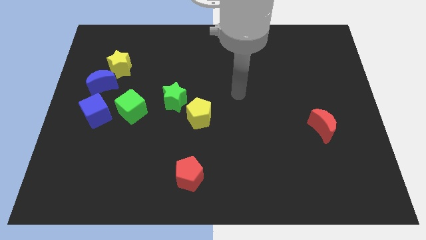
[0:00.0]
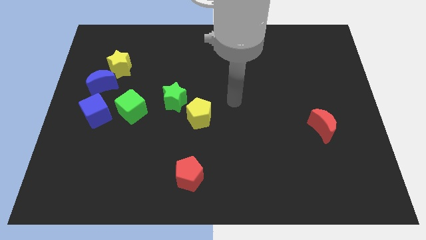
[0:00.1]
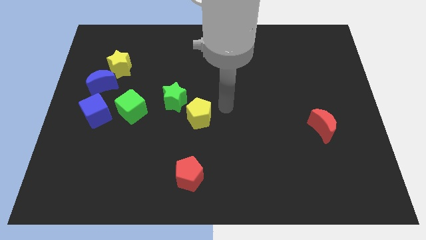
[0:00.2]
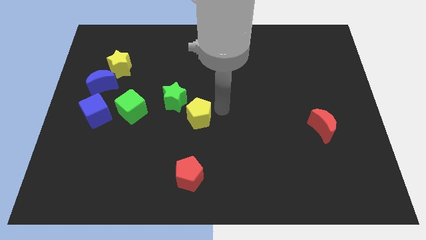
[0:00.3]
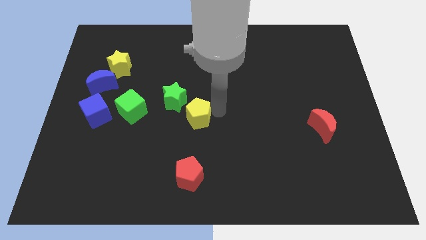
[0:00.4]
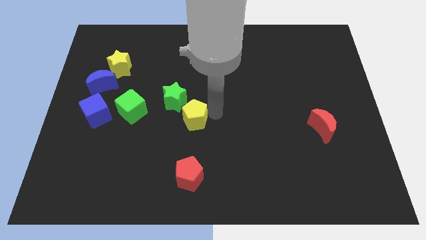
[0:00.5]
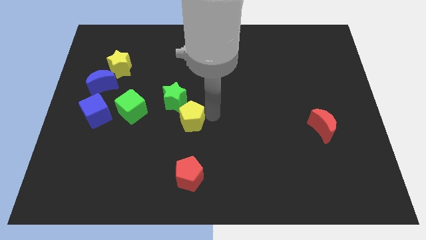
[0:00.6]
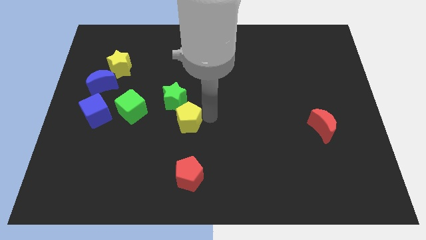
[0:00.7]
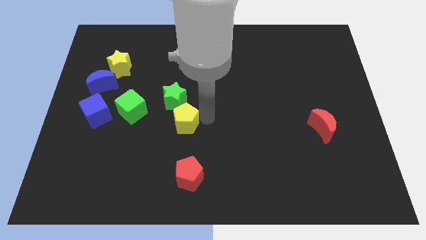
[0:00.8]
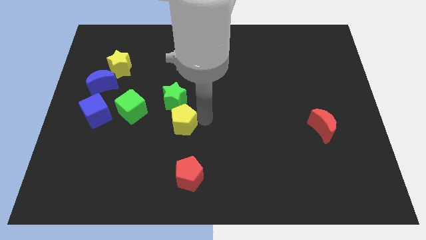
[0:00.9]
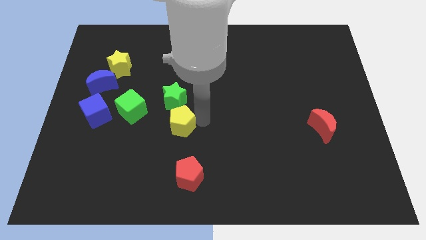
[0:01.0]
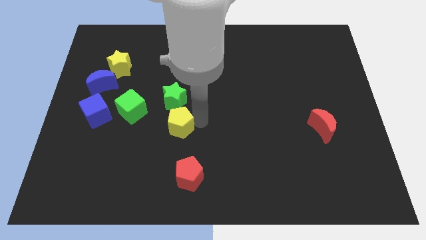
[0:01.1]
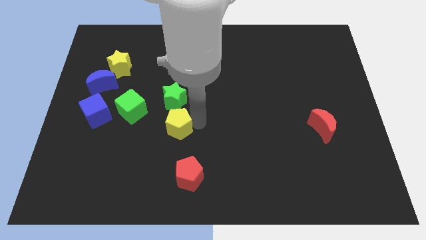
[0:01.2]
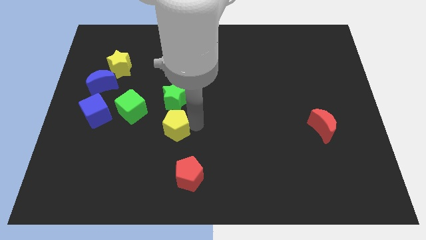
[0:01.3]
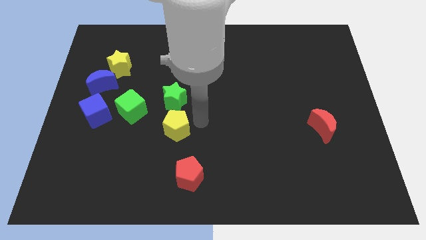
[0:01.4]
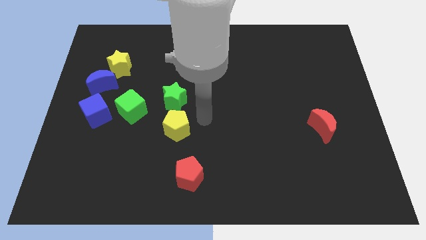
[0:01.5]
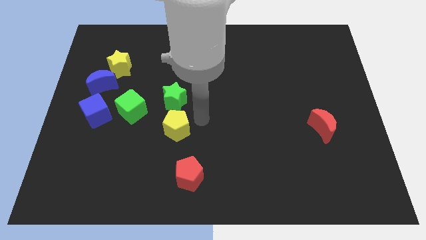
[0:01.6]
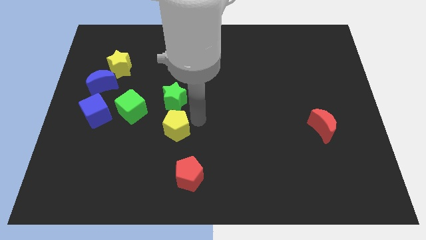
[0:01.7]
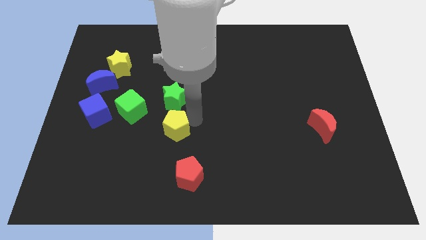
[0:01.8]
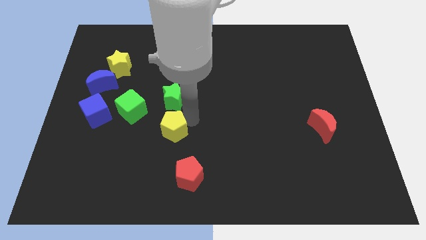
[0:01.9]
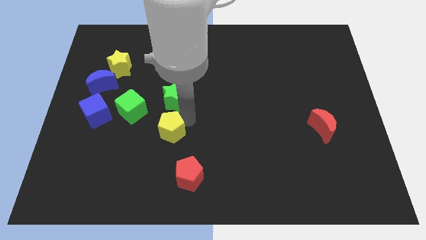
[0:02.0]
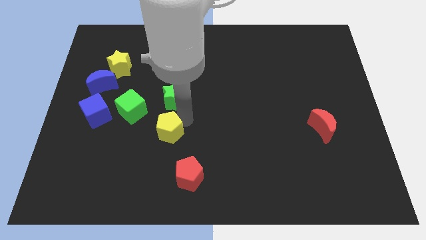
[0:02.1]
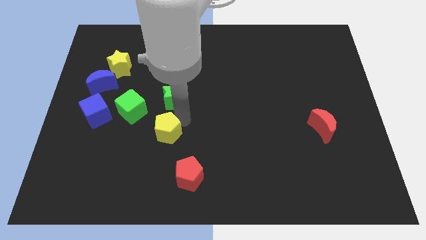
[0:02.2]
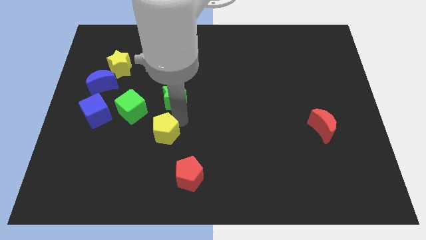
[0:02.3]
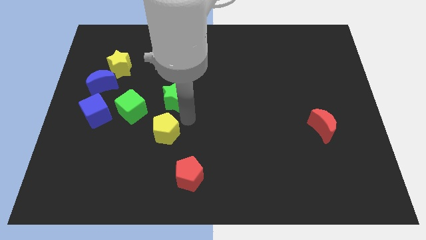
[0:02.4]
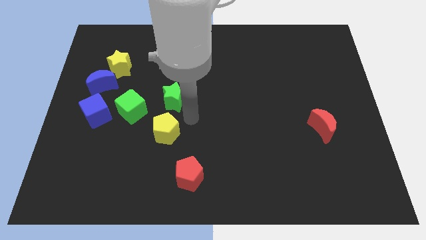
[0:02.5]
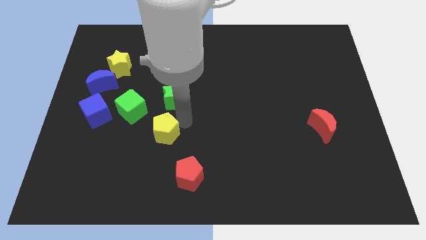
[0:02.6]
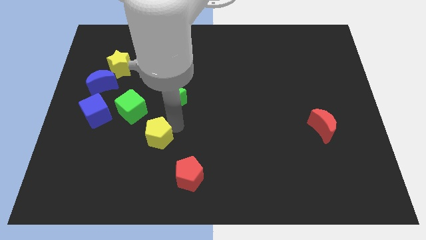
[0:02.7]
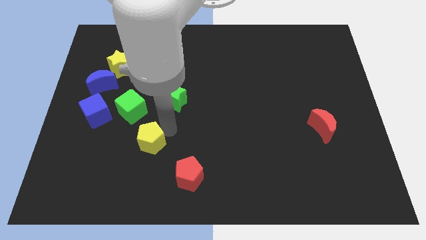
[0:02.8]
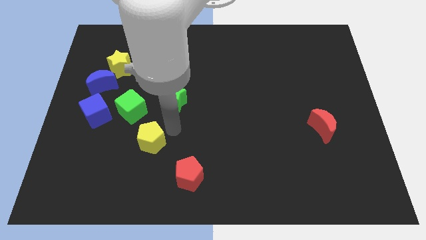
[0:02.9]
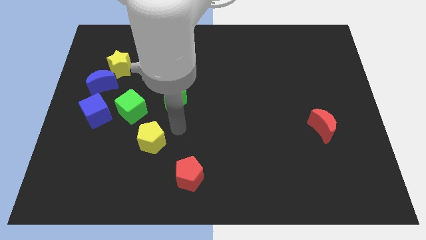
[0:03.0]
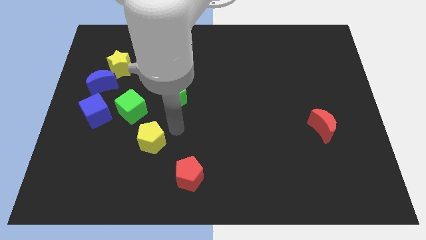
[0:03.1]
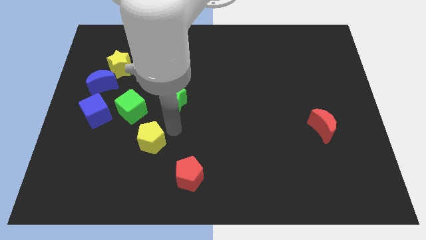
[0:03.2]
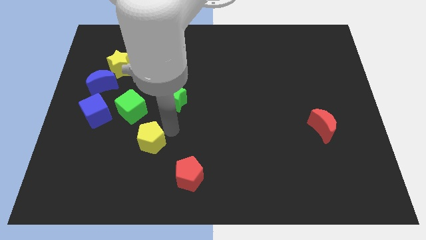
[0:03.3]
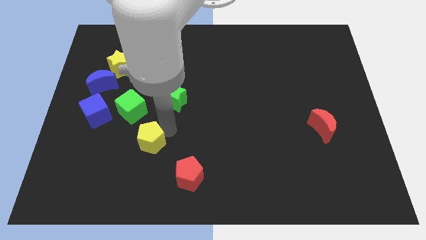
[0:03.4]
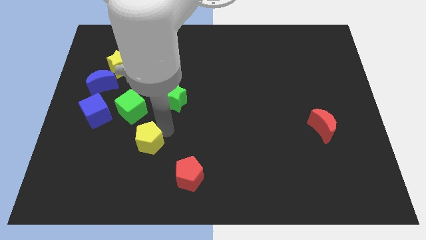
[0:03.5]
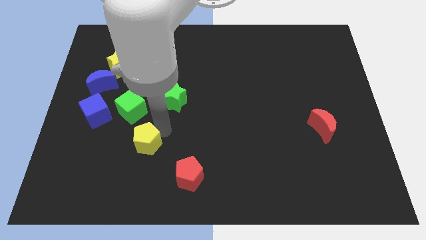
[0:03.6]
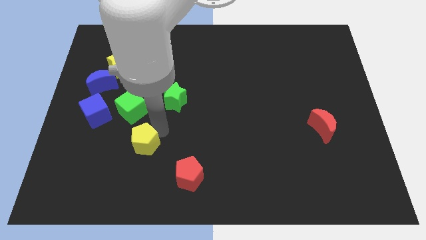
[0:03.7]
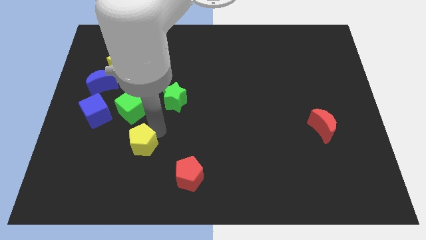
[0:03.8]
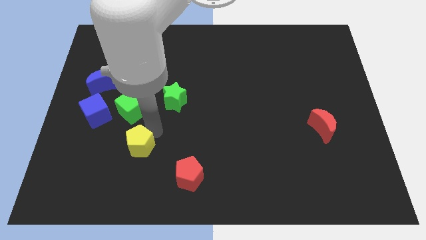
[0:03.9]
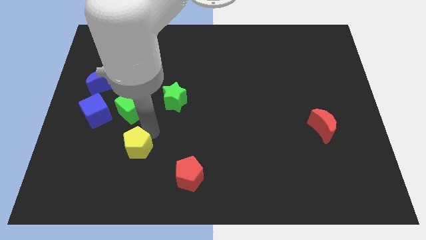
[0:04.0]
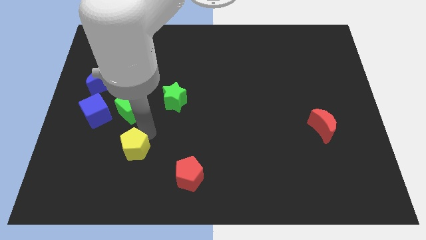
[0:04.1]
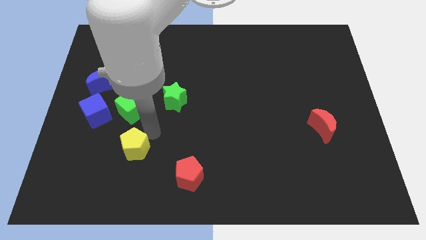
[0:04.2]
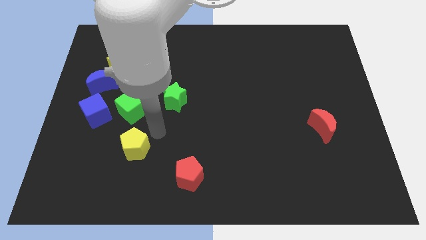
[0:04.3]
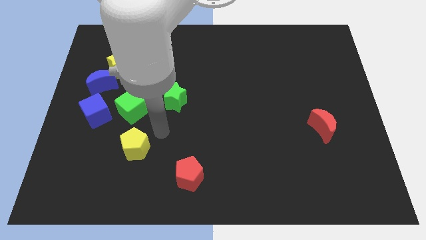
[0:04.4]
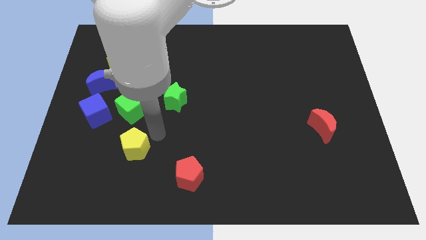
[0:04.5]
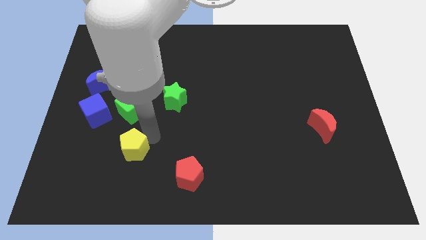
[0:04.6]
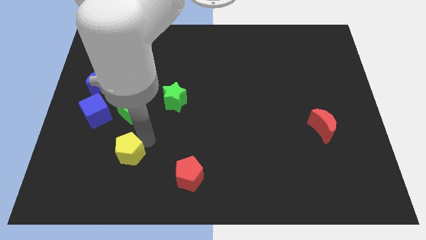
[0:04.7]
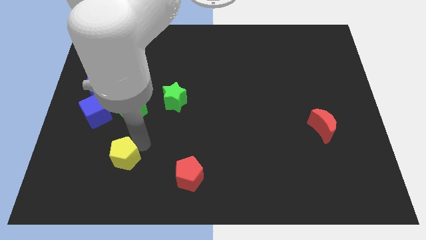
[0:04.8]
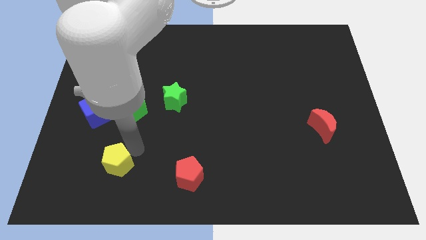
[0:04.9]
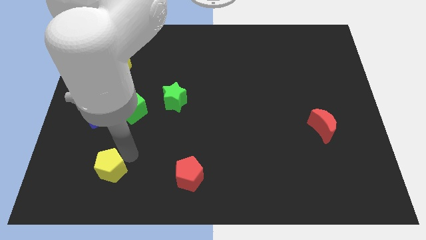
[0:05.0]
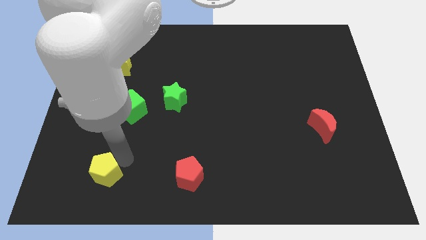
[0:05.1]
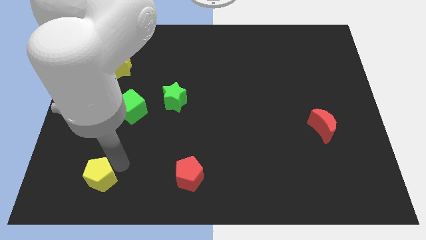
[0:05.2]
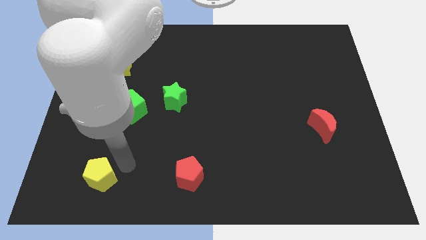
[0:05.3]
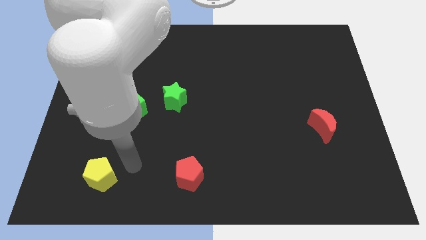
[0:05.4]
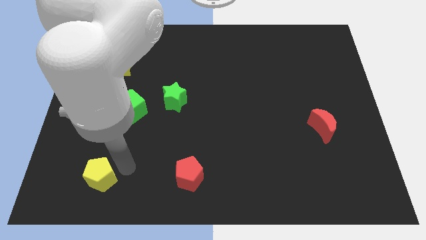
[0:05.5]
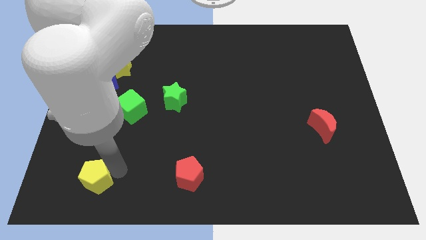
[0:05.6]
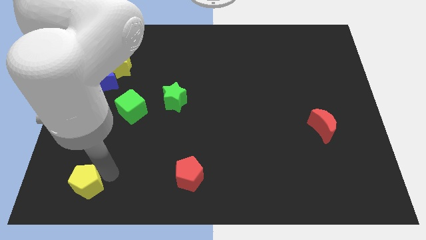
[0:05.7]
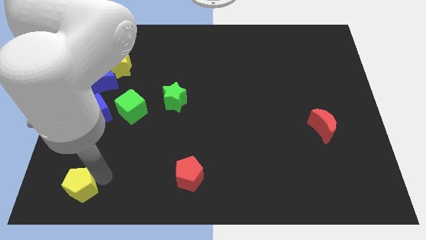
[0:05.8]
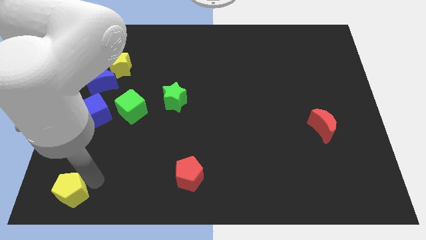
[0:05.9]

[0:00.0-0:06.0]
put the yellow pentagon to the bottom left of the board
